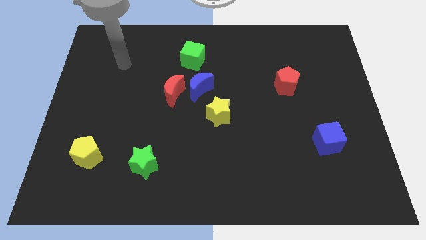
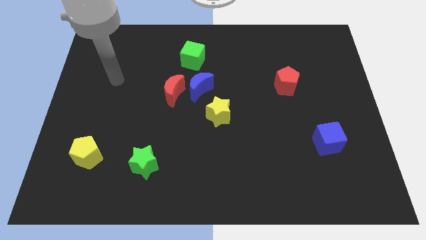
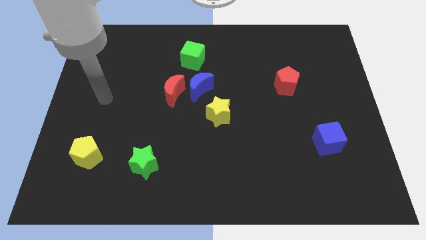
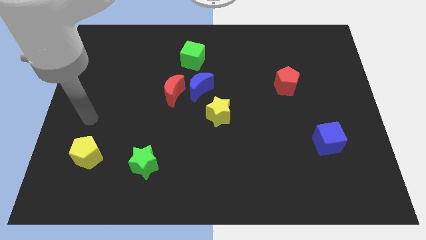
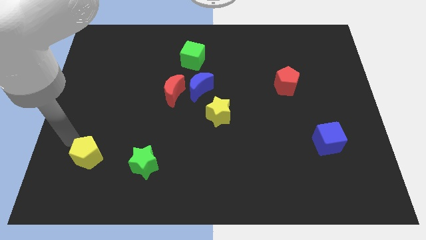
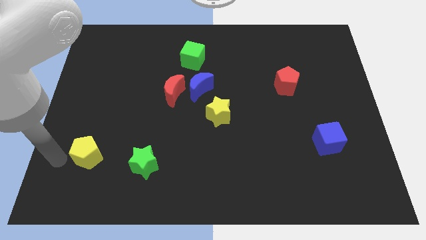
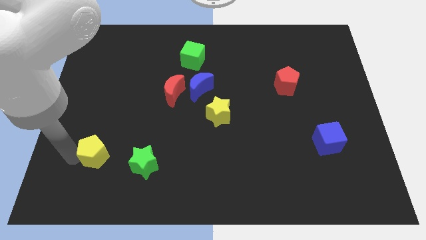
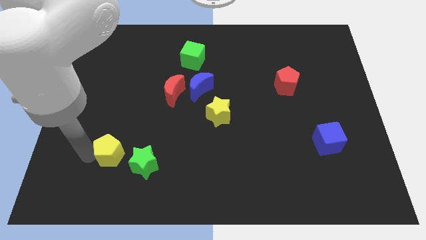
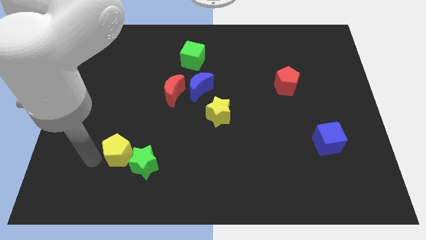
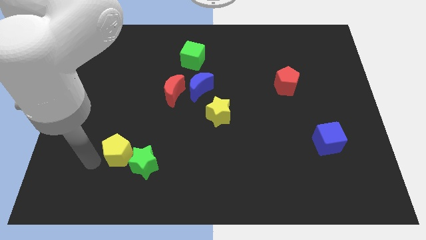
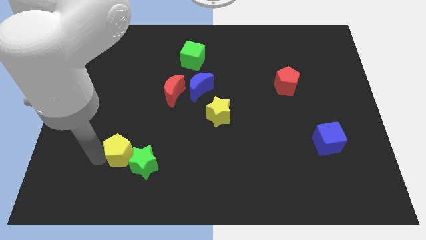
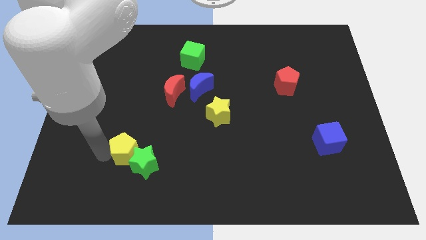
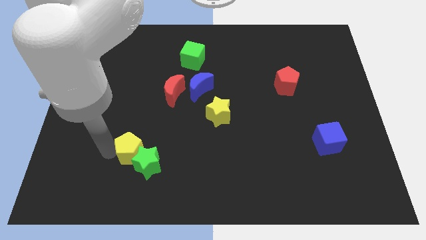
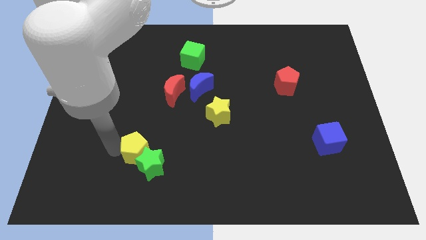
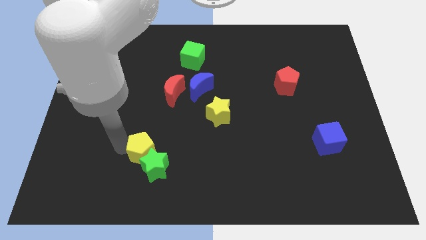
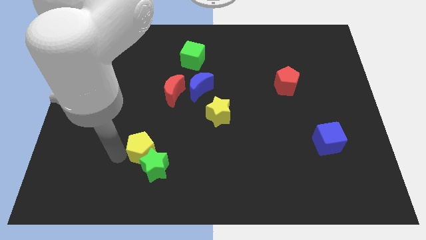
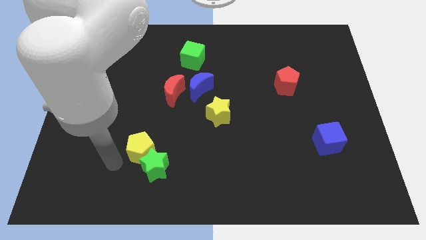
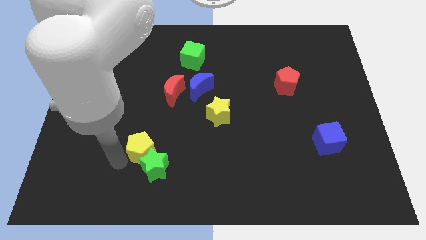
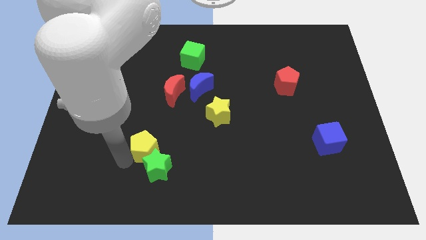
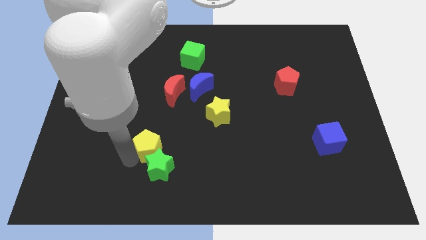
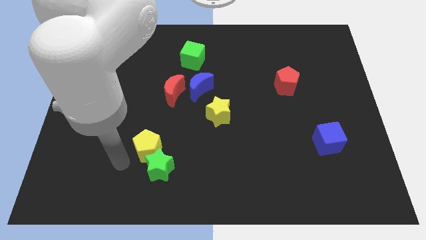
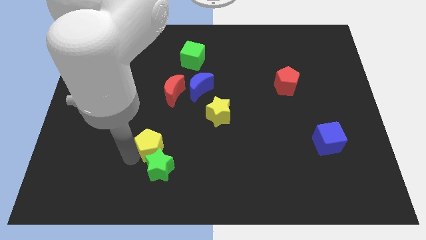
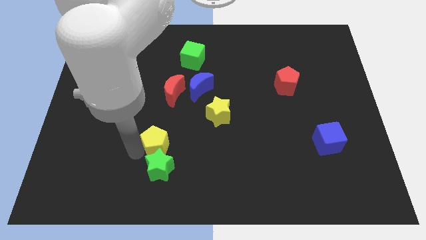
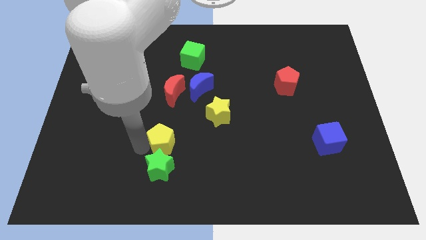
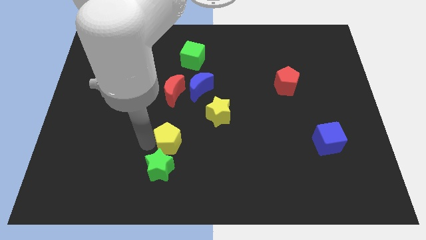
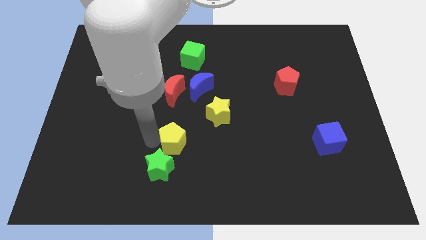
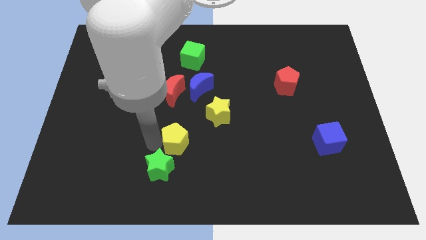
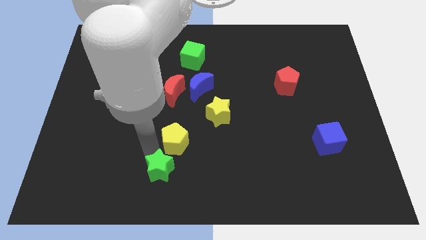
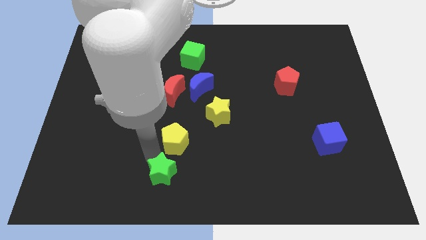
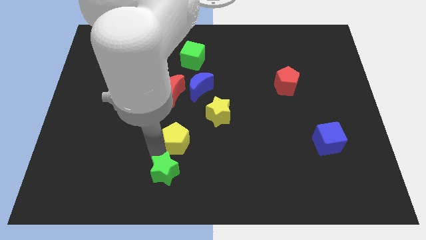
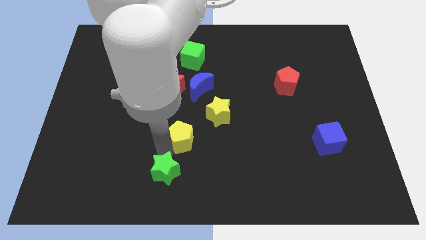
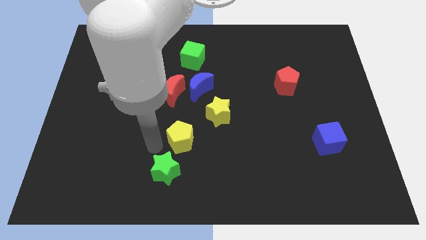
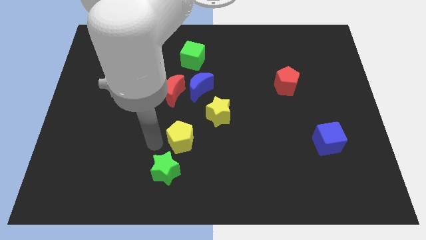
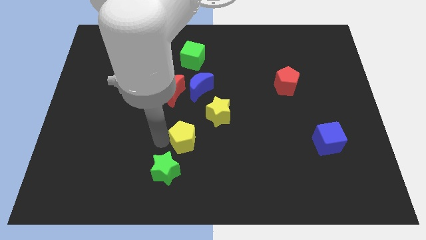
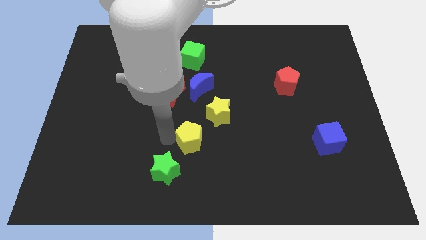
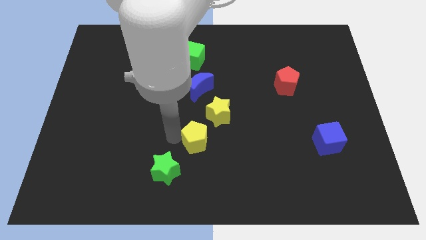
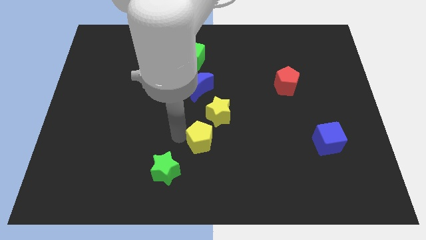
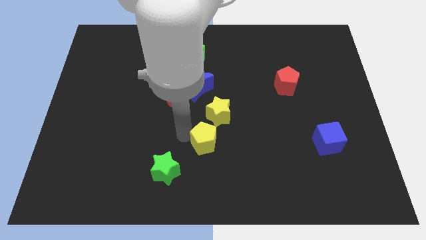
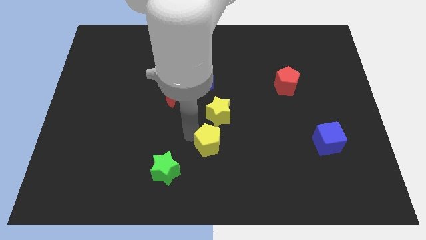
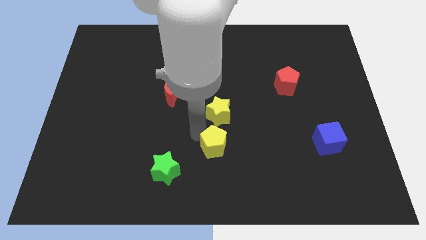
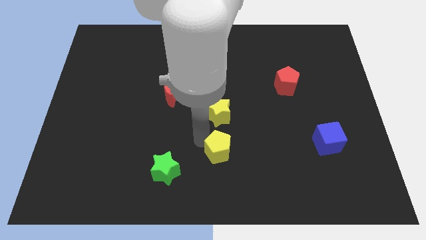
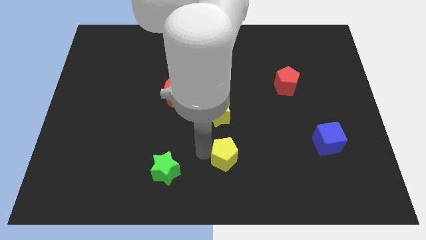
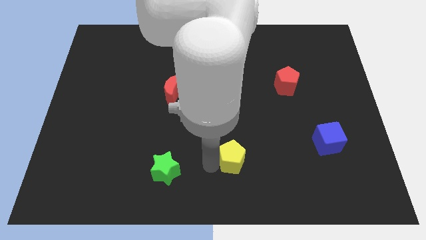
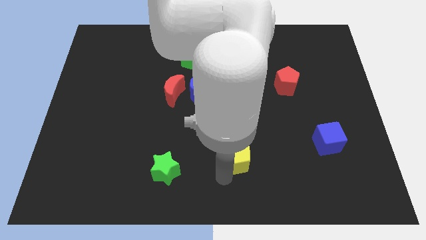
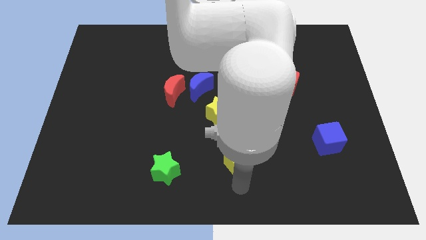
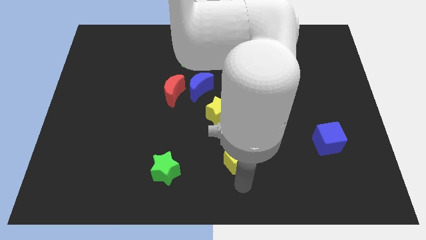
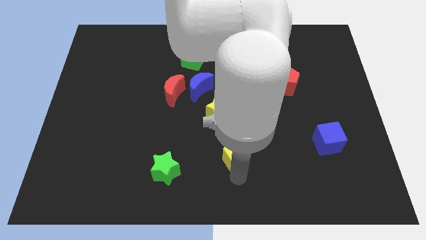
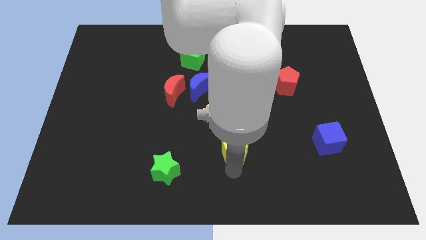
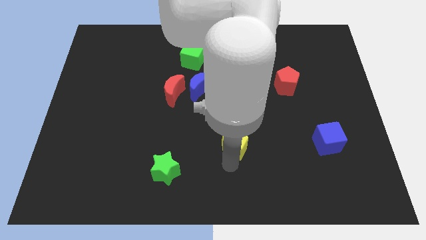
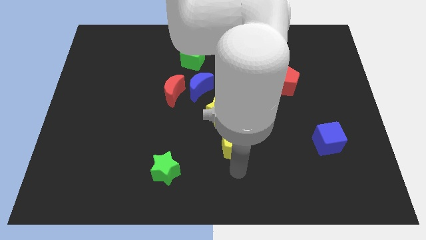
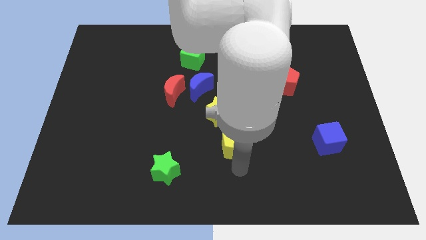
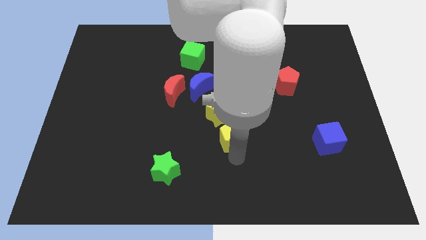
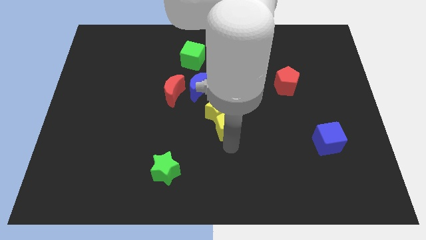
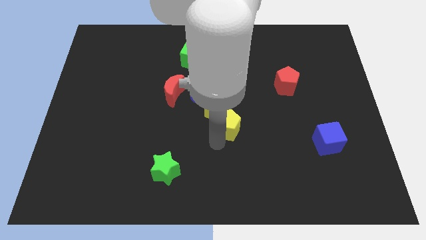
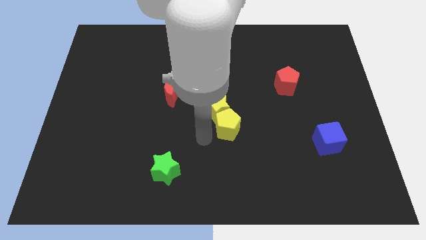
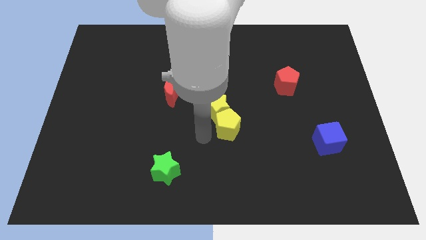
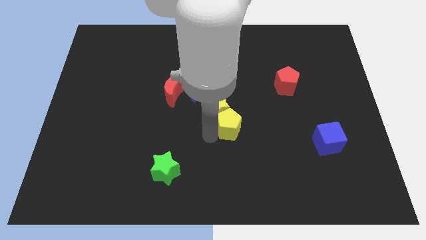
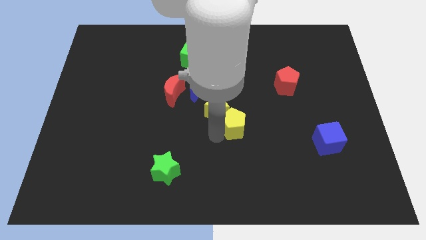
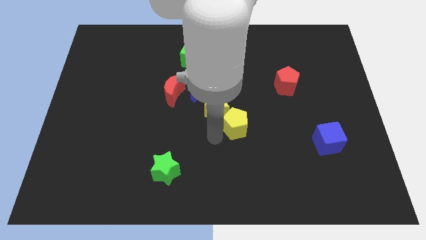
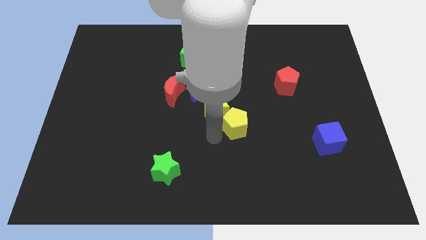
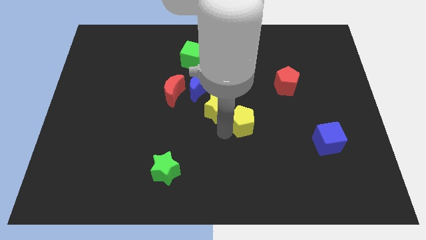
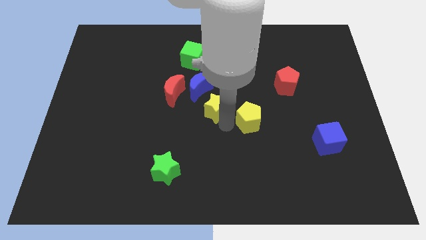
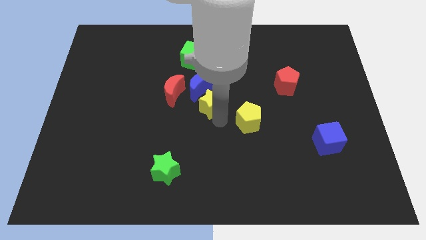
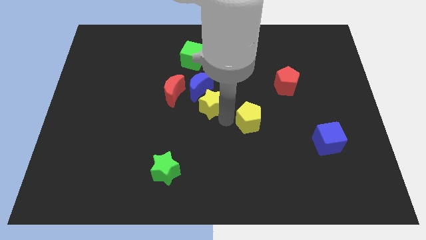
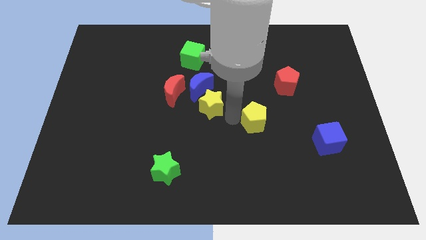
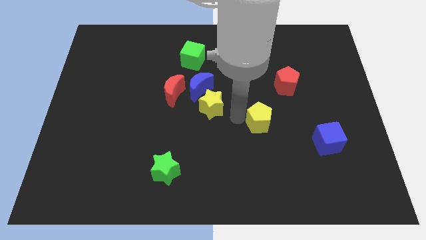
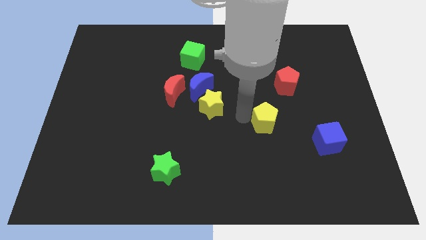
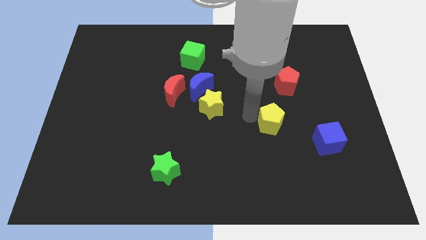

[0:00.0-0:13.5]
push the yellow pentagon below the red pentagon
